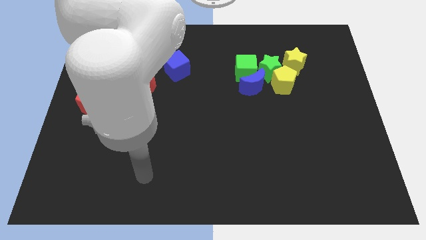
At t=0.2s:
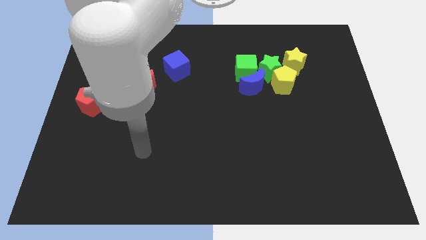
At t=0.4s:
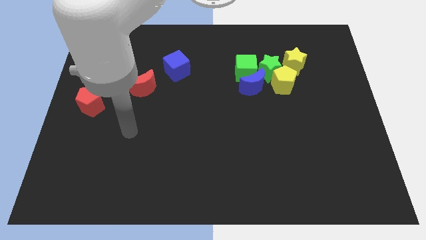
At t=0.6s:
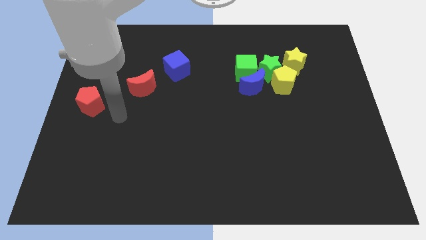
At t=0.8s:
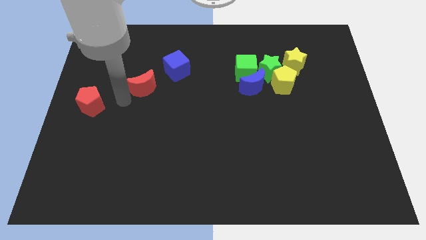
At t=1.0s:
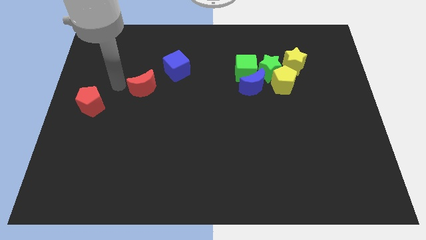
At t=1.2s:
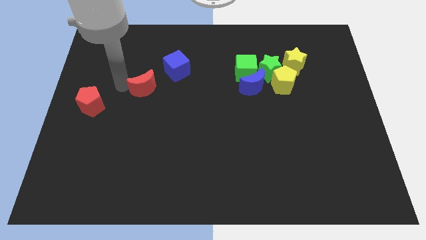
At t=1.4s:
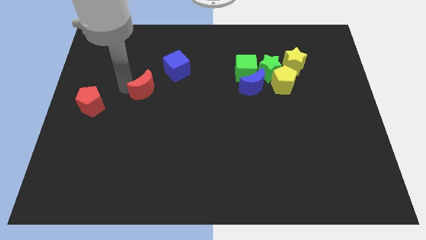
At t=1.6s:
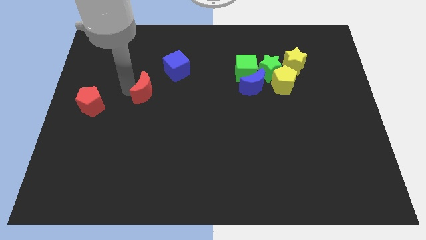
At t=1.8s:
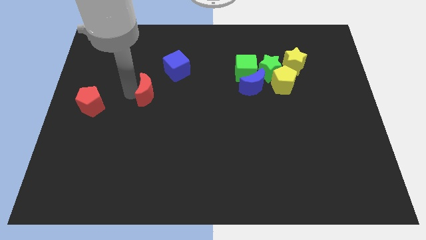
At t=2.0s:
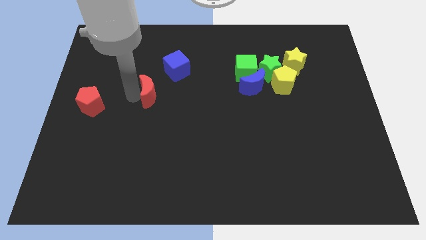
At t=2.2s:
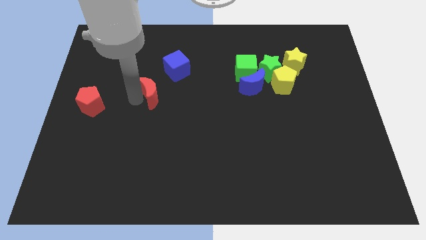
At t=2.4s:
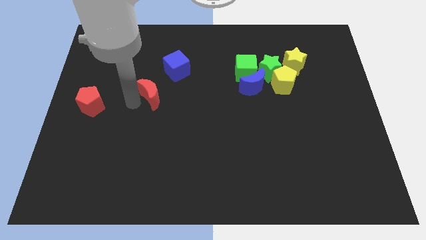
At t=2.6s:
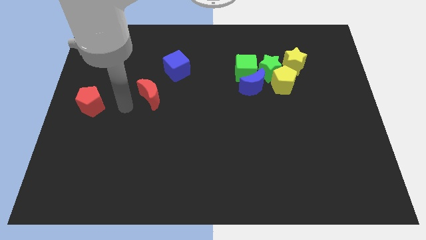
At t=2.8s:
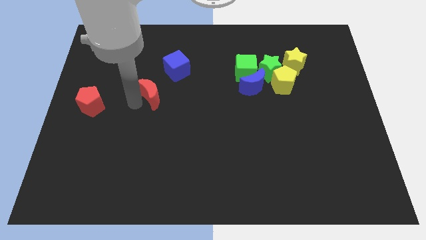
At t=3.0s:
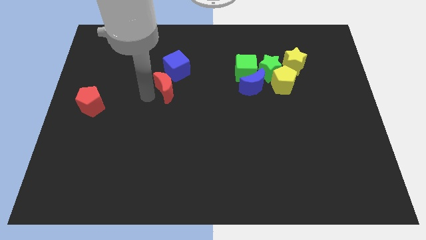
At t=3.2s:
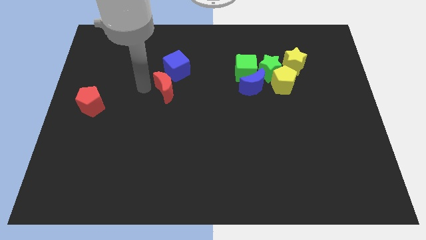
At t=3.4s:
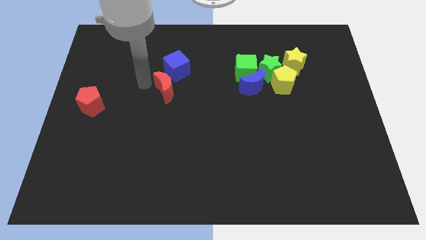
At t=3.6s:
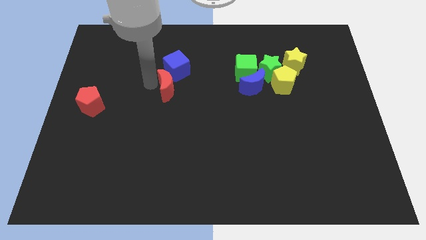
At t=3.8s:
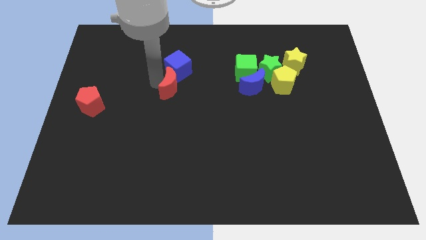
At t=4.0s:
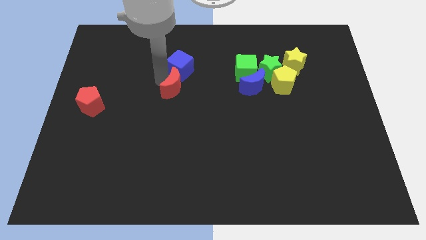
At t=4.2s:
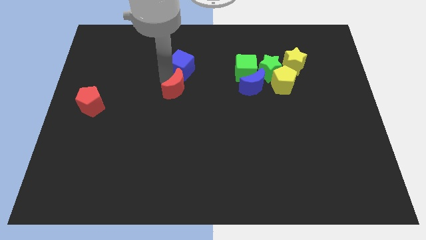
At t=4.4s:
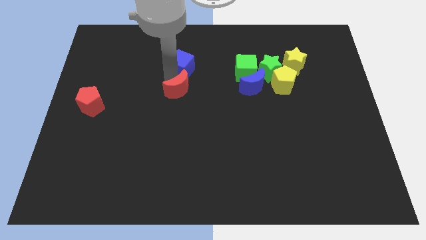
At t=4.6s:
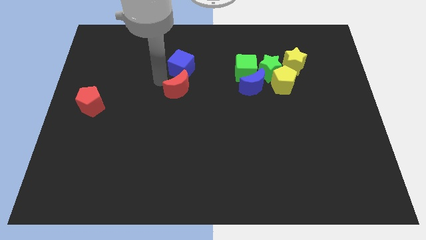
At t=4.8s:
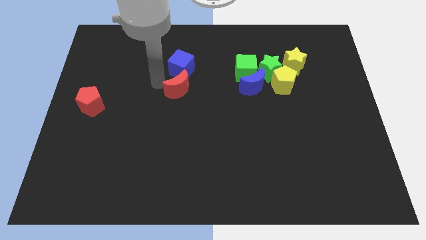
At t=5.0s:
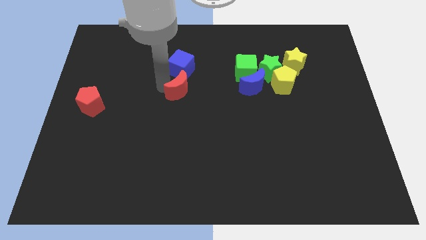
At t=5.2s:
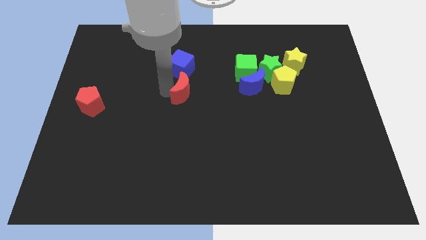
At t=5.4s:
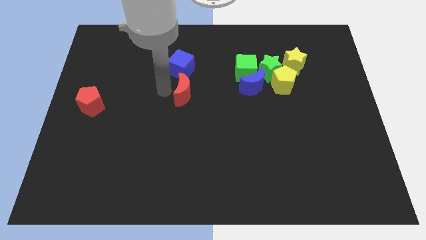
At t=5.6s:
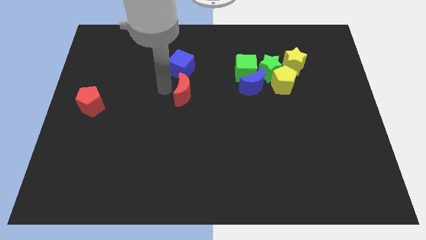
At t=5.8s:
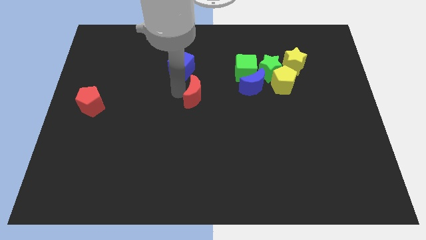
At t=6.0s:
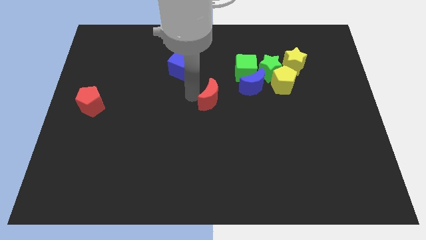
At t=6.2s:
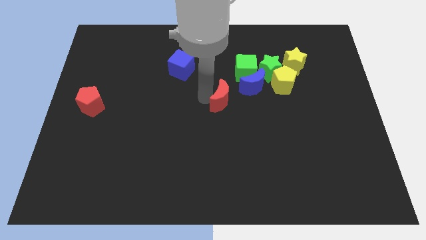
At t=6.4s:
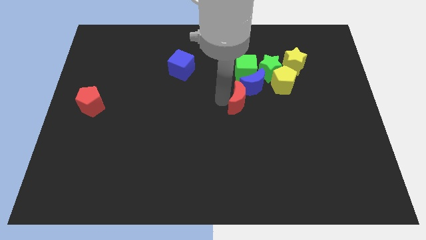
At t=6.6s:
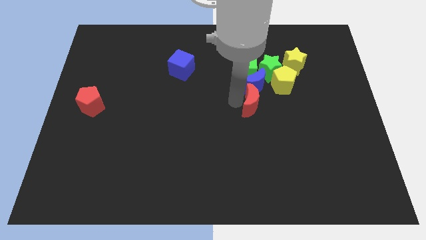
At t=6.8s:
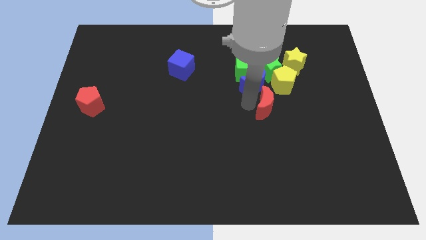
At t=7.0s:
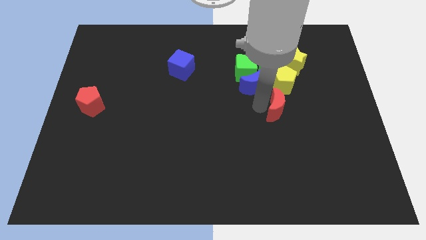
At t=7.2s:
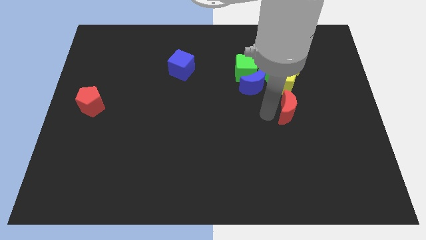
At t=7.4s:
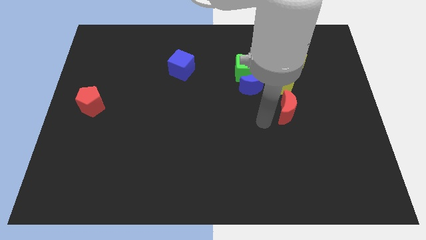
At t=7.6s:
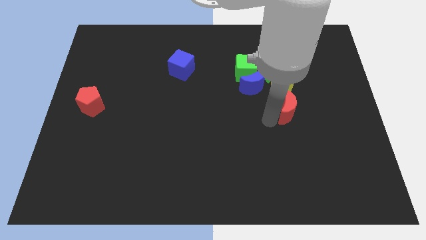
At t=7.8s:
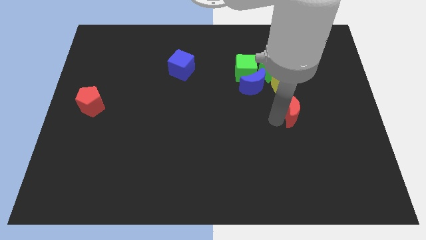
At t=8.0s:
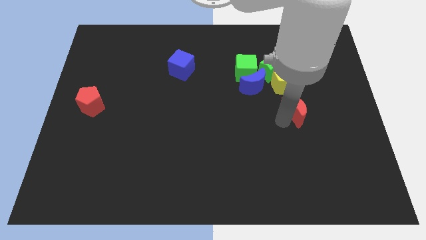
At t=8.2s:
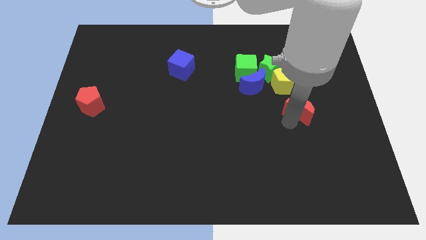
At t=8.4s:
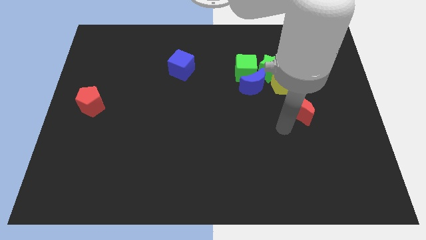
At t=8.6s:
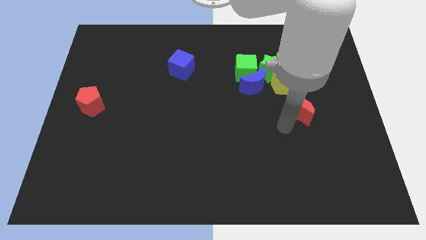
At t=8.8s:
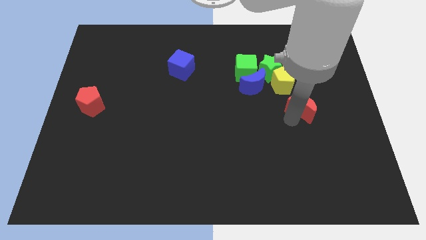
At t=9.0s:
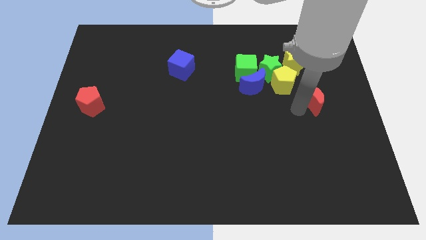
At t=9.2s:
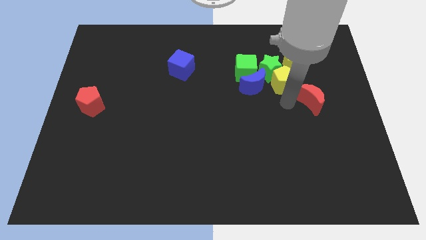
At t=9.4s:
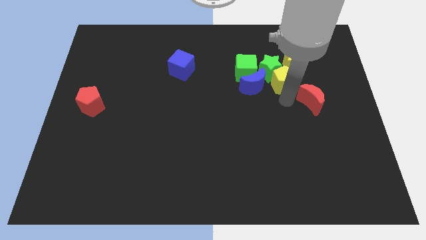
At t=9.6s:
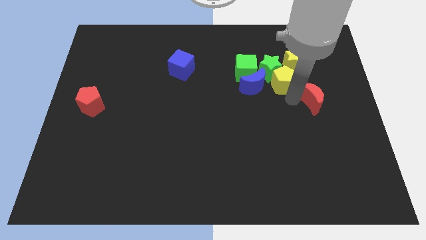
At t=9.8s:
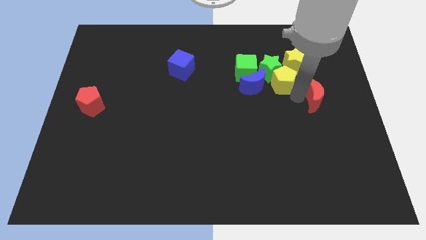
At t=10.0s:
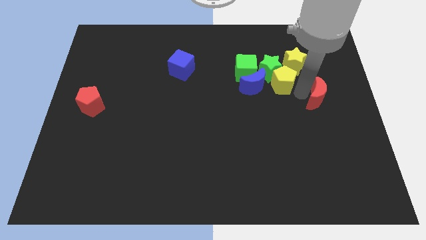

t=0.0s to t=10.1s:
slide the red moon to the right side
